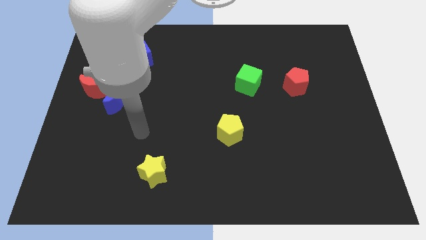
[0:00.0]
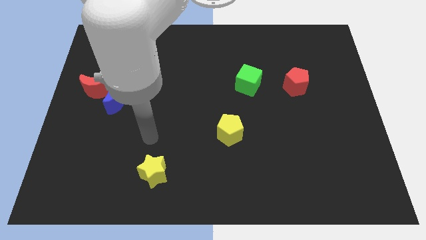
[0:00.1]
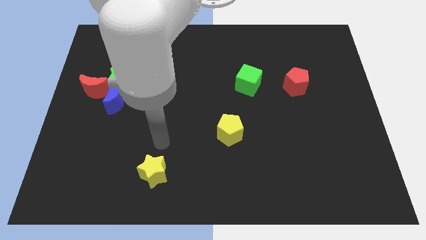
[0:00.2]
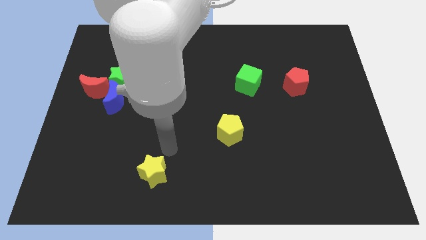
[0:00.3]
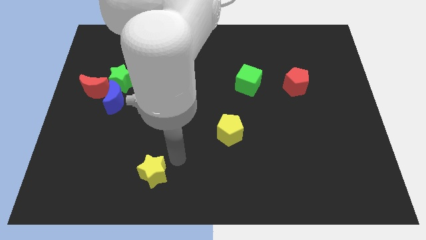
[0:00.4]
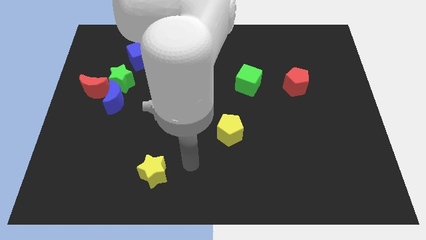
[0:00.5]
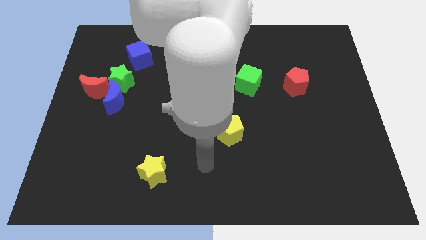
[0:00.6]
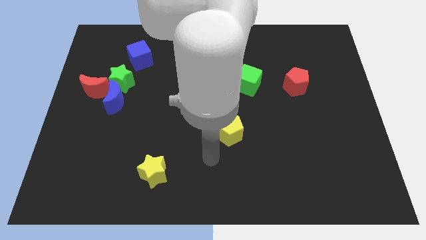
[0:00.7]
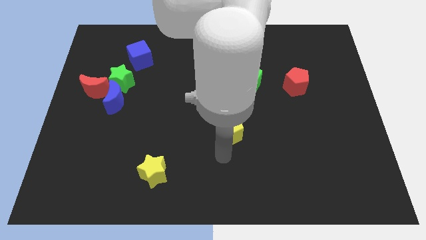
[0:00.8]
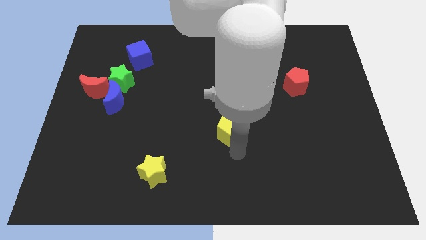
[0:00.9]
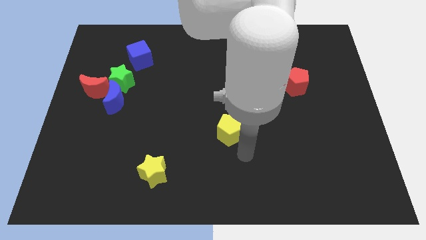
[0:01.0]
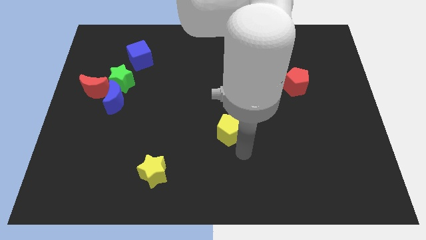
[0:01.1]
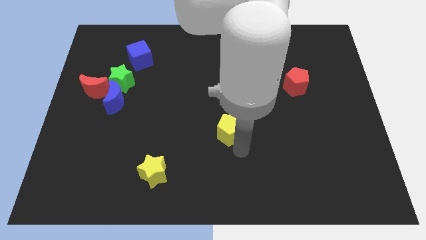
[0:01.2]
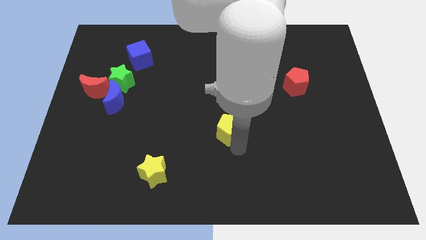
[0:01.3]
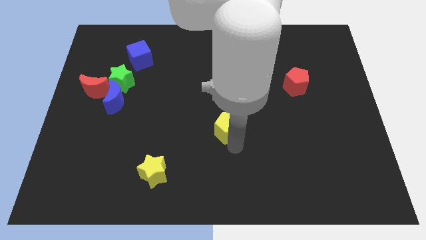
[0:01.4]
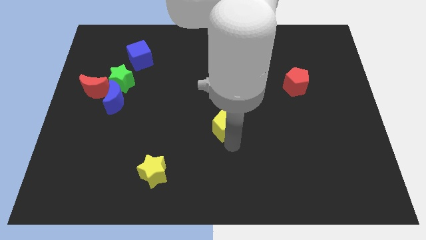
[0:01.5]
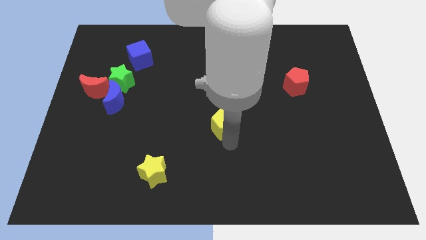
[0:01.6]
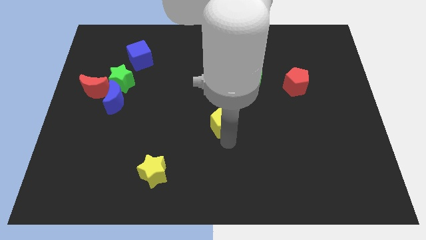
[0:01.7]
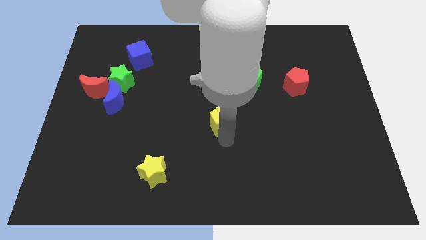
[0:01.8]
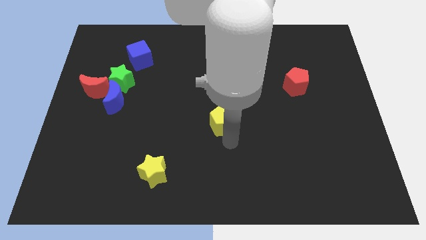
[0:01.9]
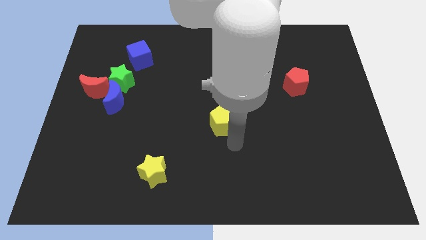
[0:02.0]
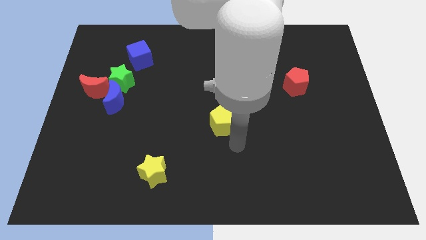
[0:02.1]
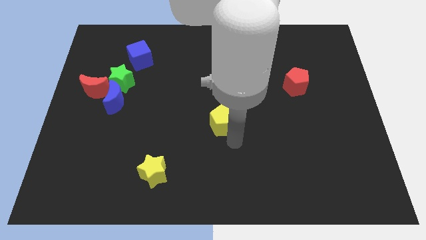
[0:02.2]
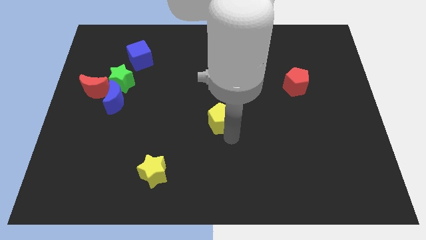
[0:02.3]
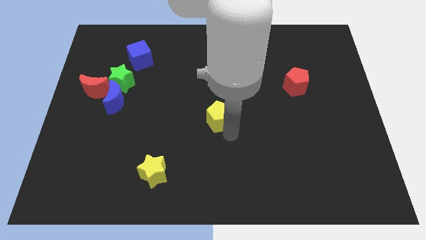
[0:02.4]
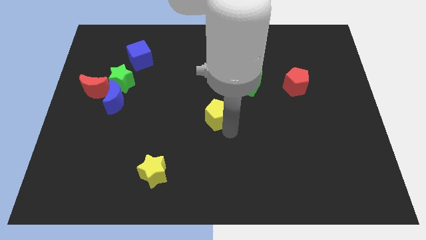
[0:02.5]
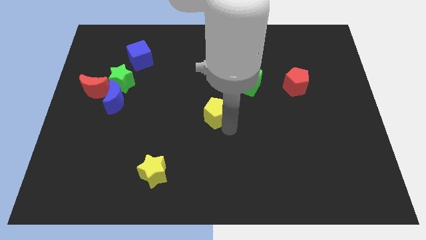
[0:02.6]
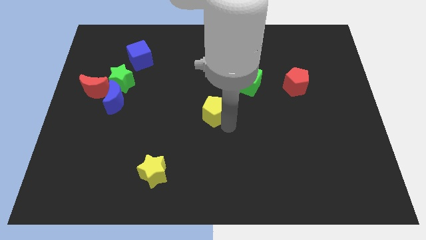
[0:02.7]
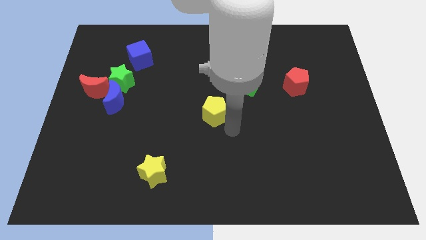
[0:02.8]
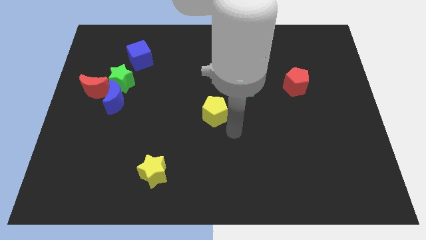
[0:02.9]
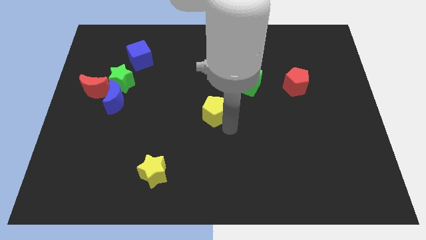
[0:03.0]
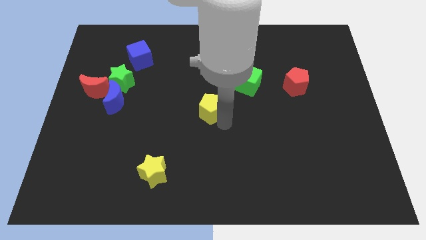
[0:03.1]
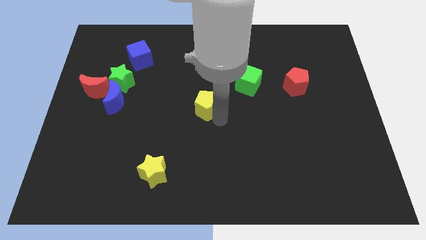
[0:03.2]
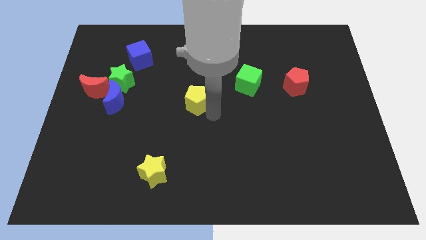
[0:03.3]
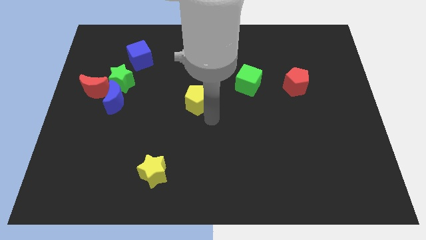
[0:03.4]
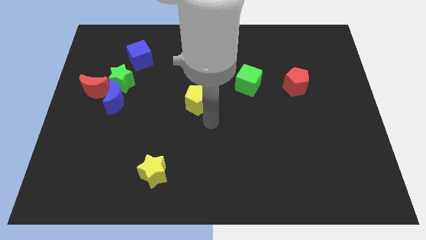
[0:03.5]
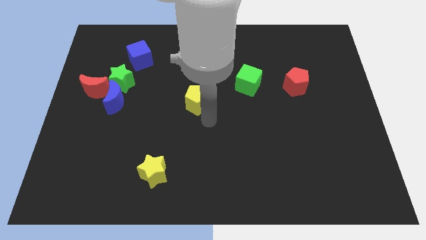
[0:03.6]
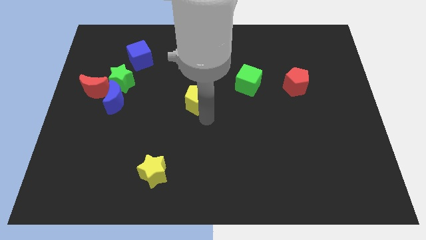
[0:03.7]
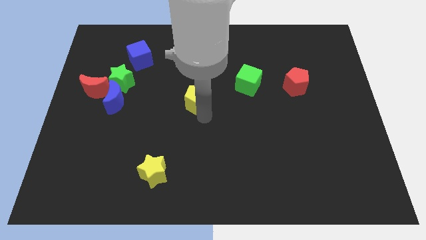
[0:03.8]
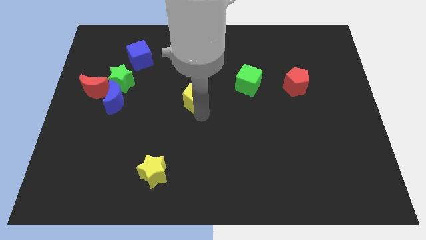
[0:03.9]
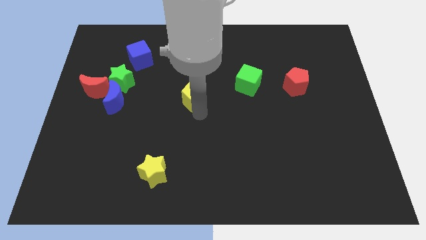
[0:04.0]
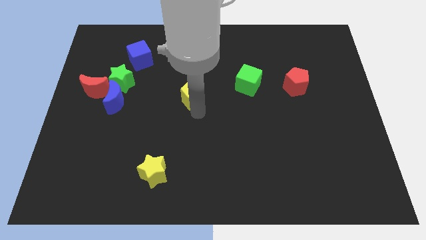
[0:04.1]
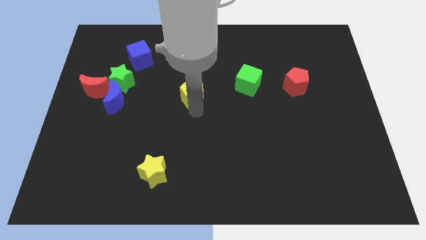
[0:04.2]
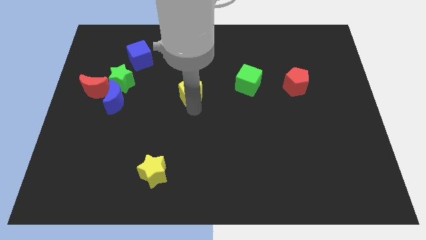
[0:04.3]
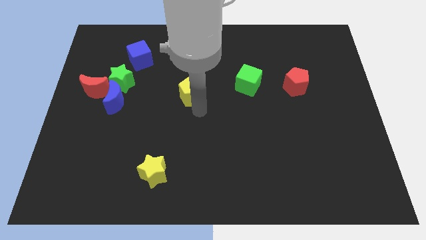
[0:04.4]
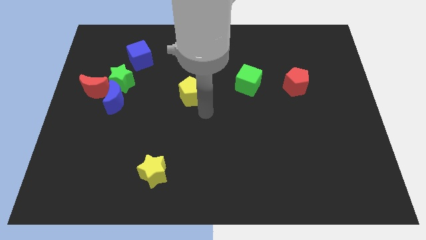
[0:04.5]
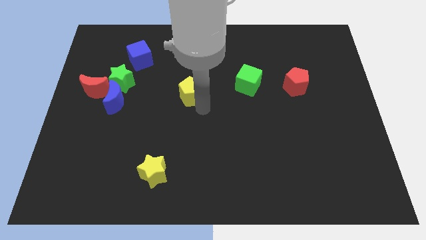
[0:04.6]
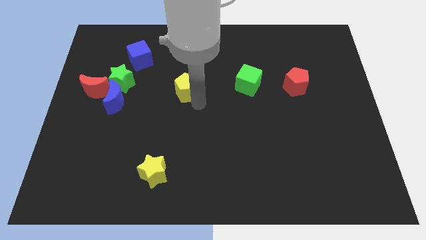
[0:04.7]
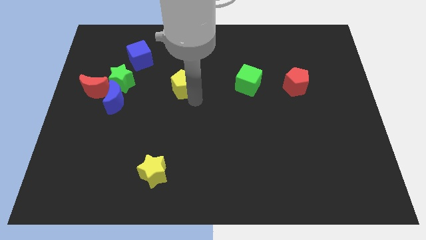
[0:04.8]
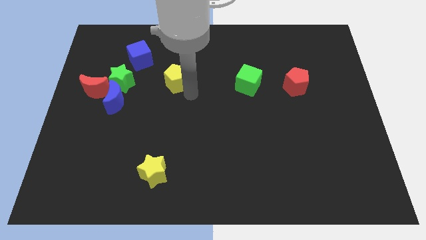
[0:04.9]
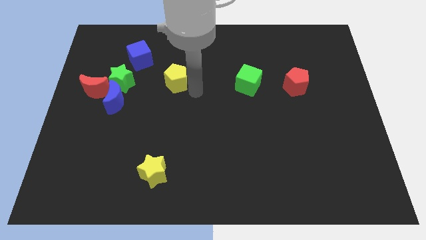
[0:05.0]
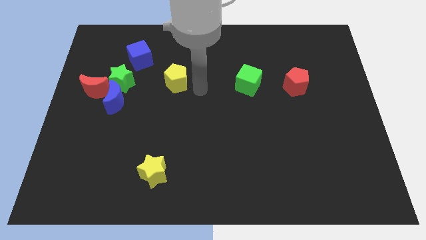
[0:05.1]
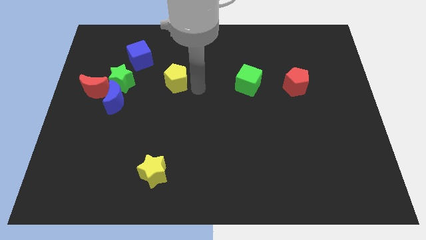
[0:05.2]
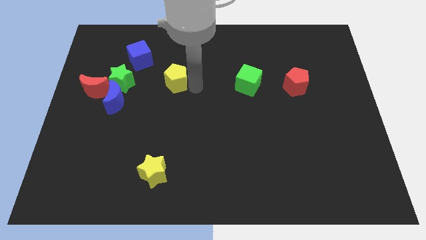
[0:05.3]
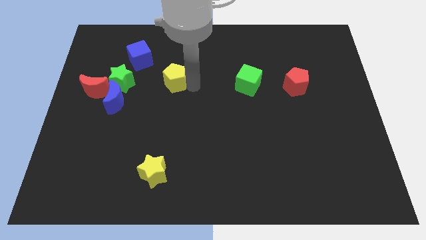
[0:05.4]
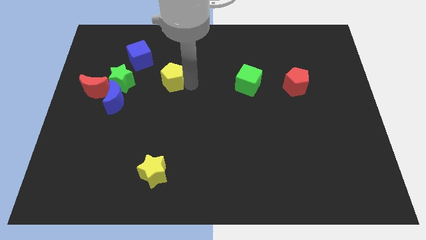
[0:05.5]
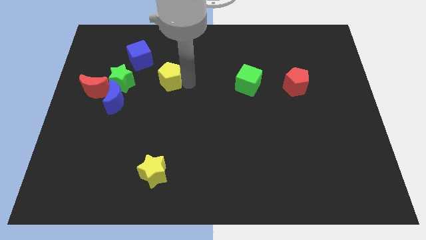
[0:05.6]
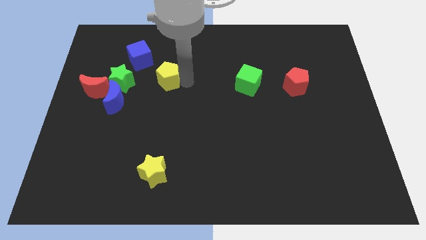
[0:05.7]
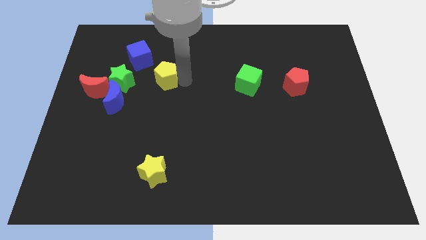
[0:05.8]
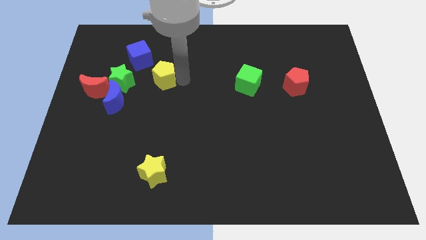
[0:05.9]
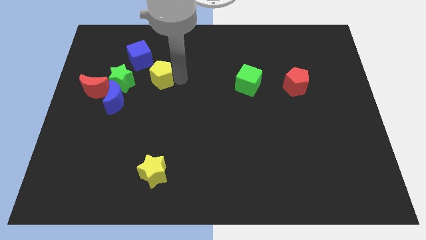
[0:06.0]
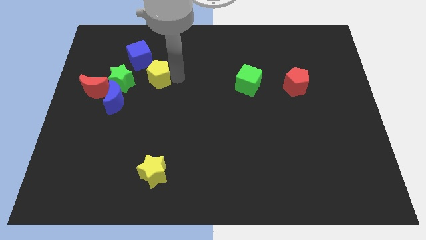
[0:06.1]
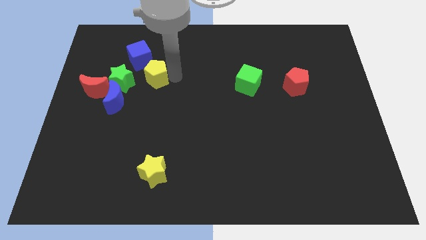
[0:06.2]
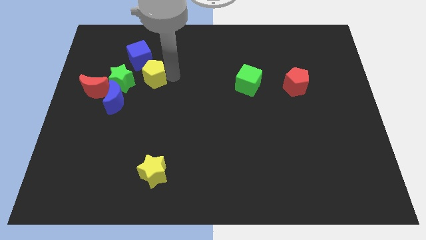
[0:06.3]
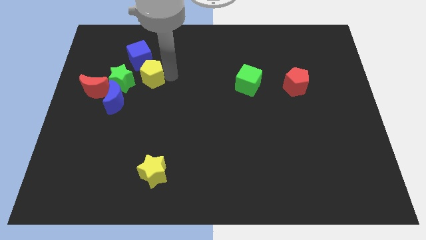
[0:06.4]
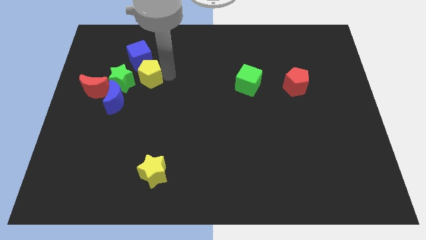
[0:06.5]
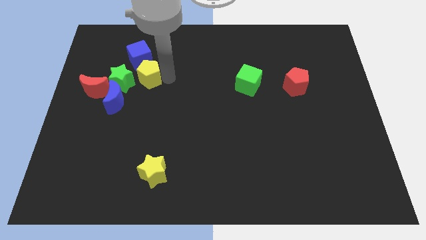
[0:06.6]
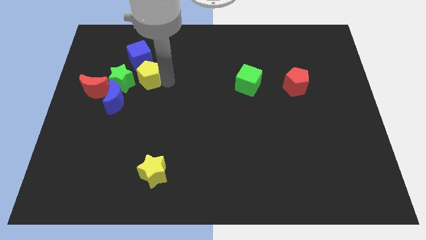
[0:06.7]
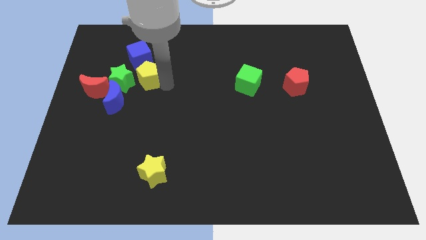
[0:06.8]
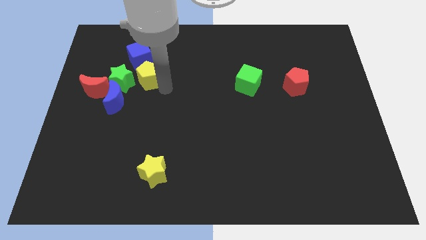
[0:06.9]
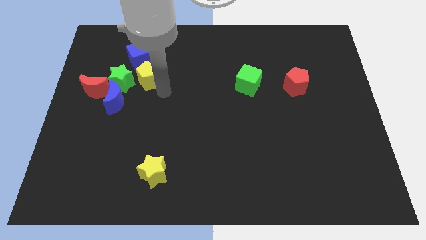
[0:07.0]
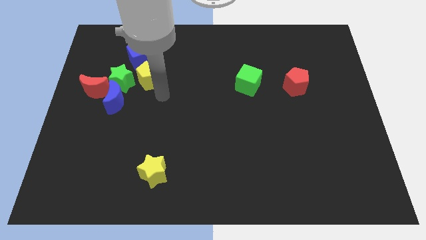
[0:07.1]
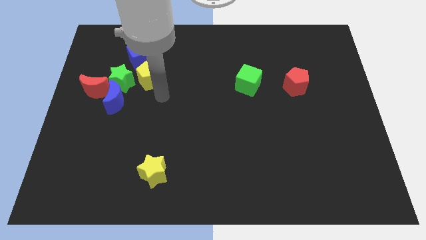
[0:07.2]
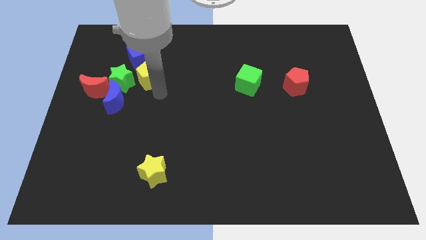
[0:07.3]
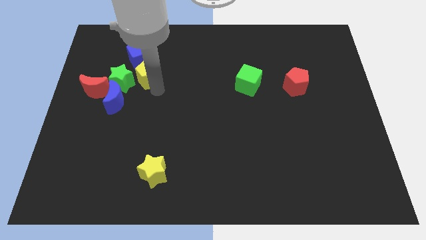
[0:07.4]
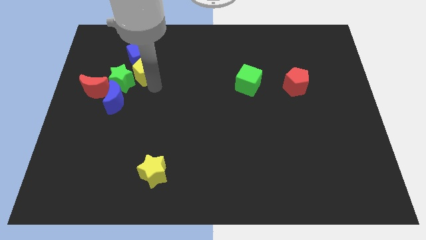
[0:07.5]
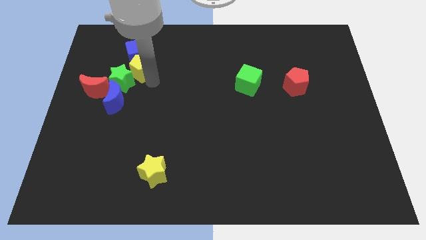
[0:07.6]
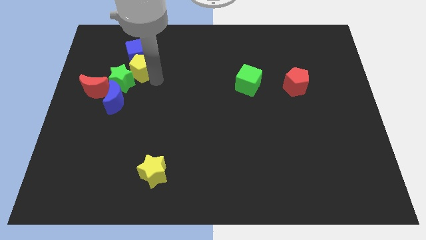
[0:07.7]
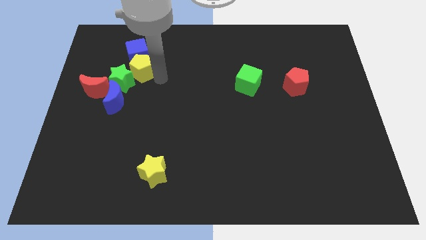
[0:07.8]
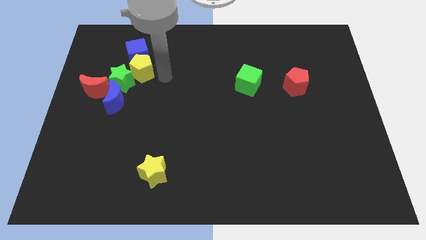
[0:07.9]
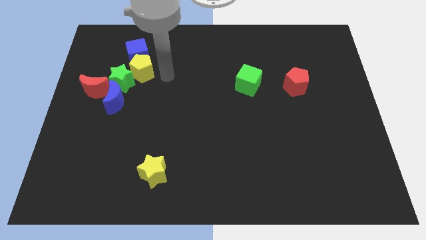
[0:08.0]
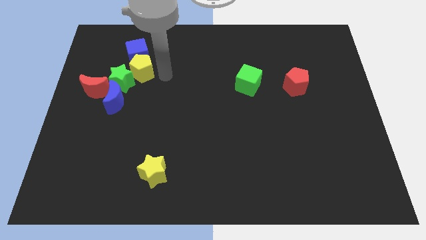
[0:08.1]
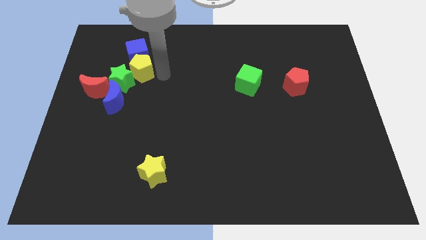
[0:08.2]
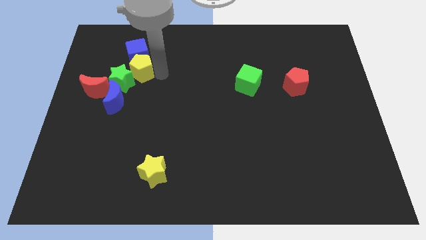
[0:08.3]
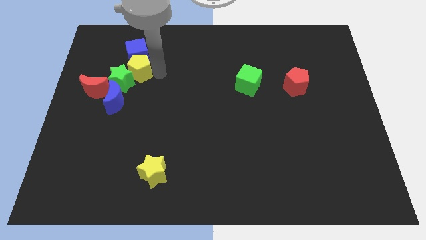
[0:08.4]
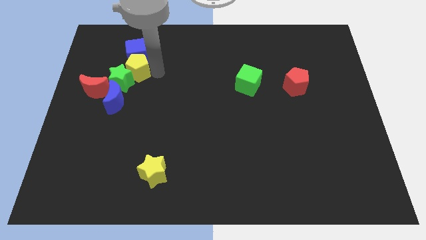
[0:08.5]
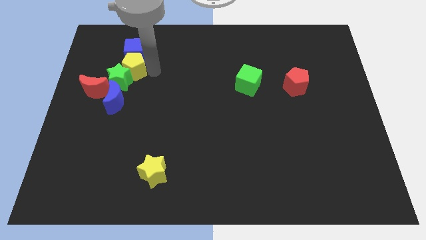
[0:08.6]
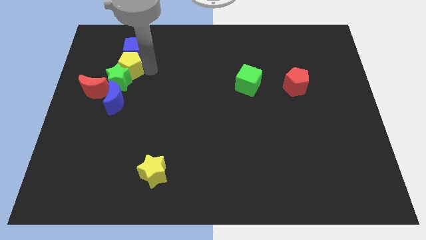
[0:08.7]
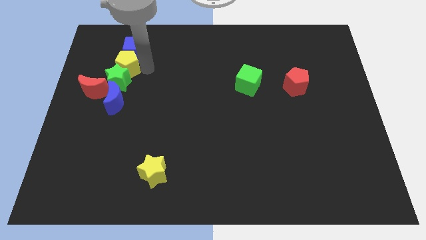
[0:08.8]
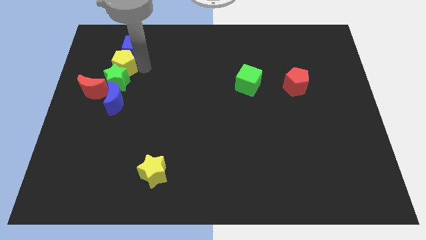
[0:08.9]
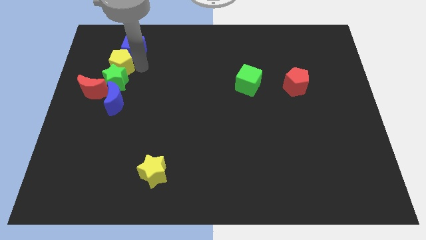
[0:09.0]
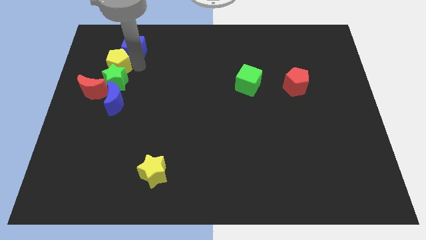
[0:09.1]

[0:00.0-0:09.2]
put the yellow pentagon above the red moon
